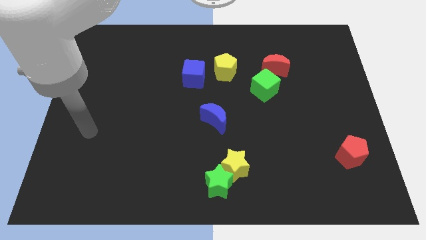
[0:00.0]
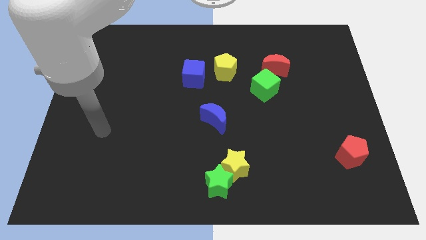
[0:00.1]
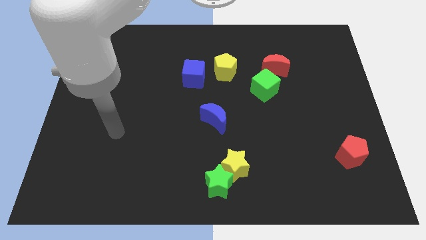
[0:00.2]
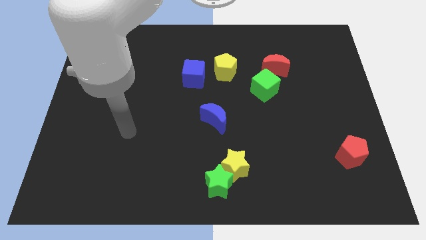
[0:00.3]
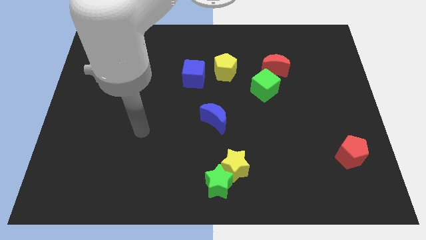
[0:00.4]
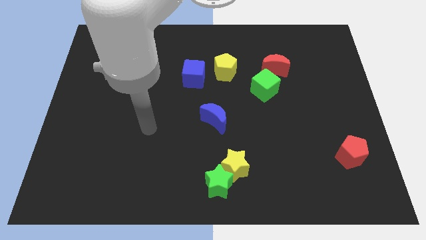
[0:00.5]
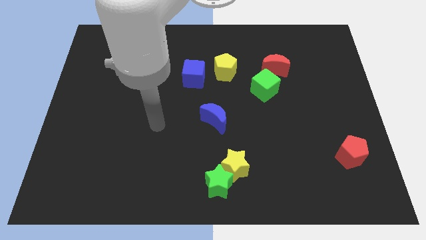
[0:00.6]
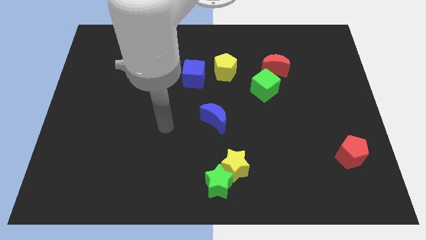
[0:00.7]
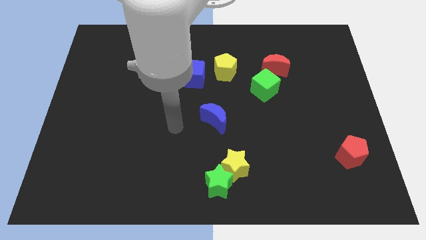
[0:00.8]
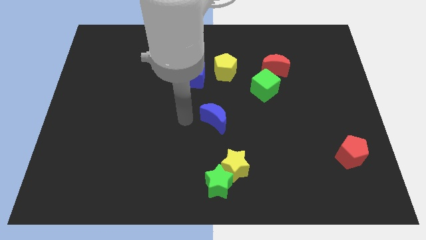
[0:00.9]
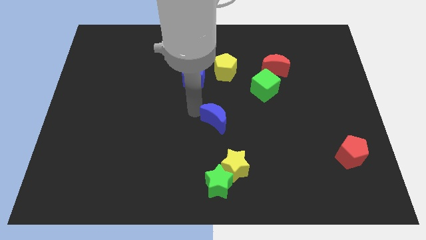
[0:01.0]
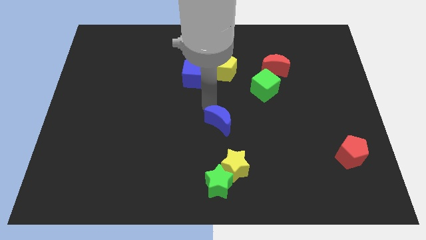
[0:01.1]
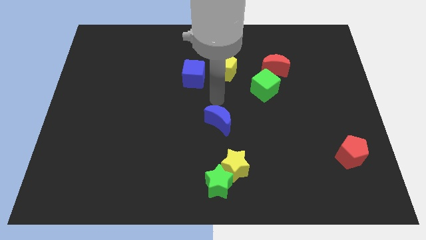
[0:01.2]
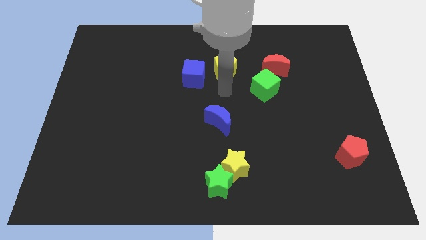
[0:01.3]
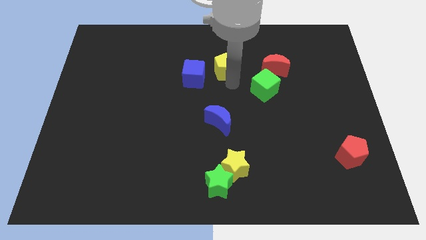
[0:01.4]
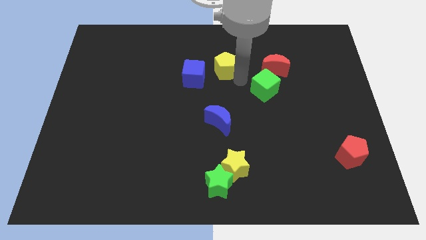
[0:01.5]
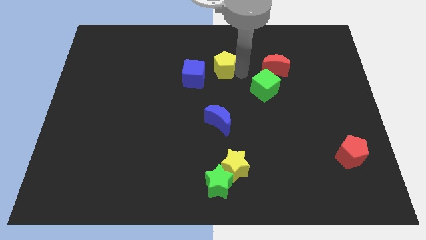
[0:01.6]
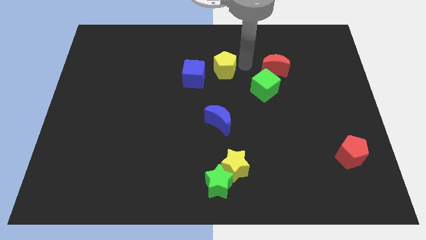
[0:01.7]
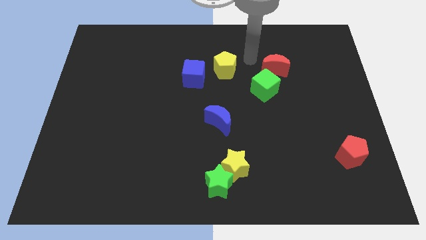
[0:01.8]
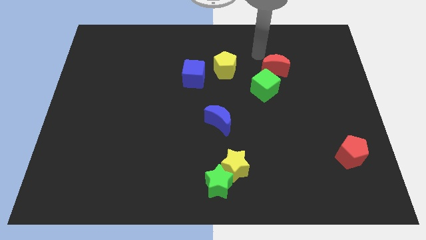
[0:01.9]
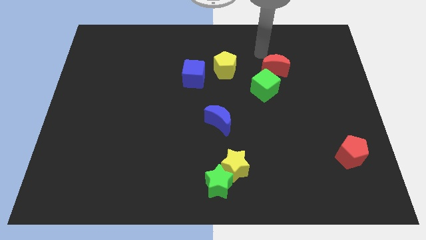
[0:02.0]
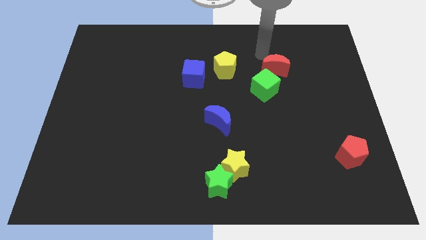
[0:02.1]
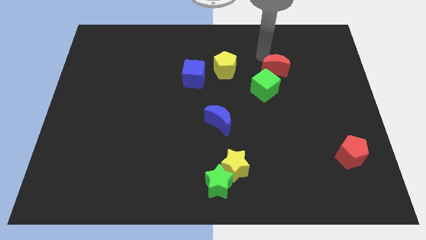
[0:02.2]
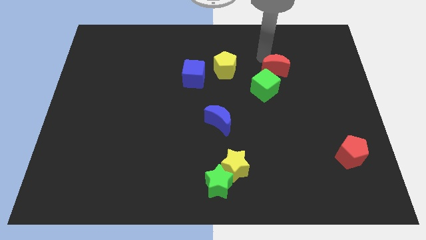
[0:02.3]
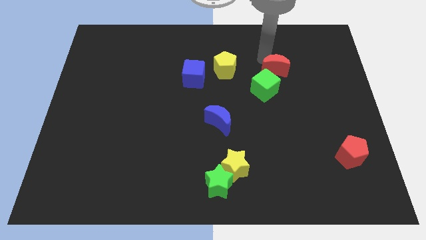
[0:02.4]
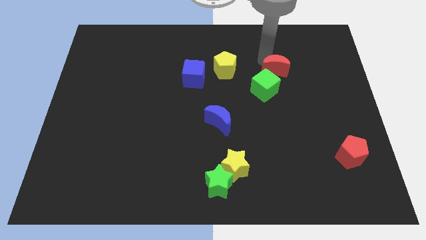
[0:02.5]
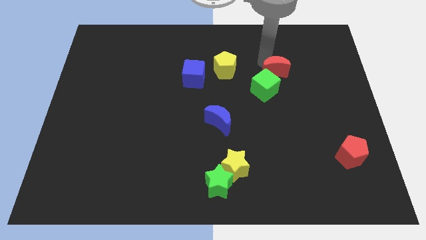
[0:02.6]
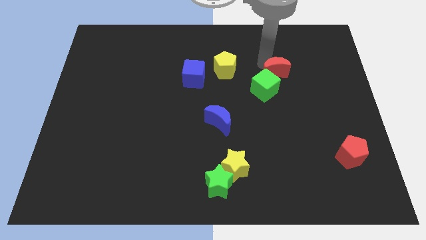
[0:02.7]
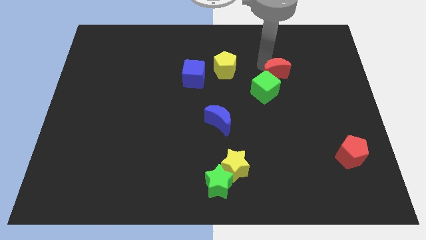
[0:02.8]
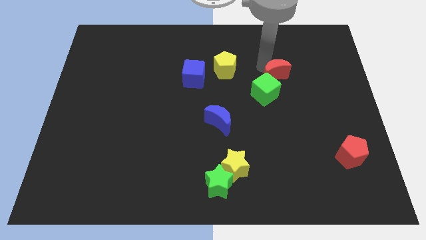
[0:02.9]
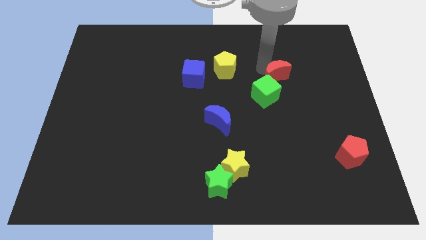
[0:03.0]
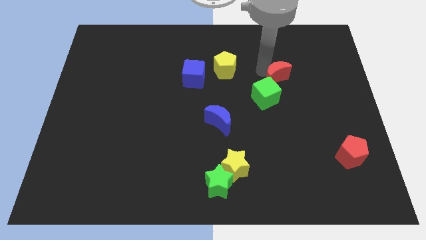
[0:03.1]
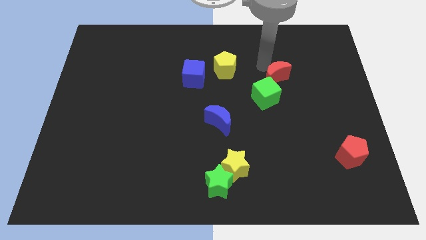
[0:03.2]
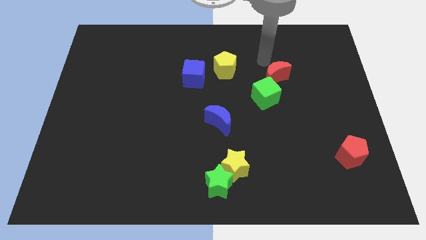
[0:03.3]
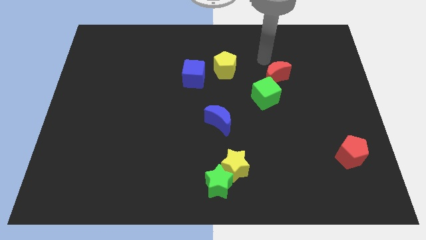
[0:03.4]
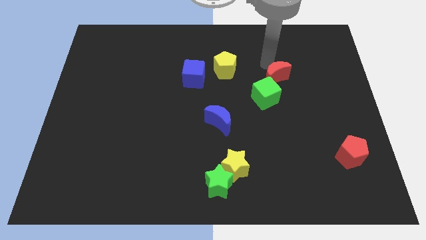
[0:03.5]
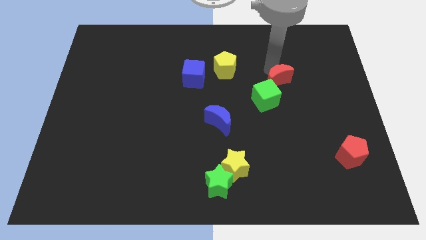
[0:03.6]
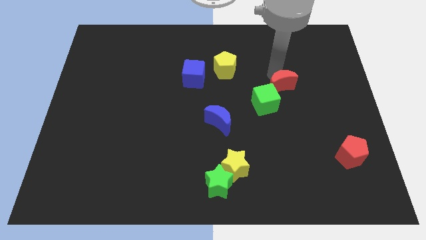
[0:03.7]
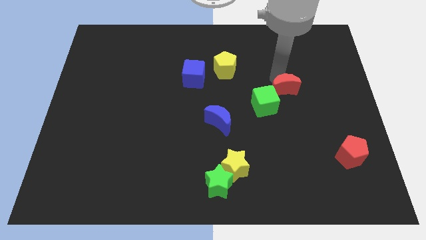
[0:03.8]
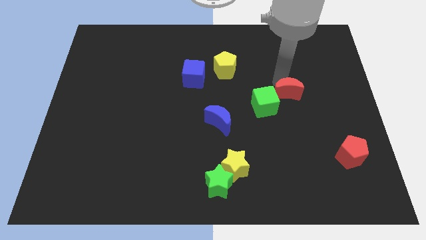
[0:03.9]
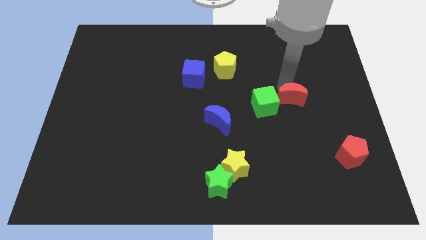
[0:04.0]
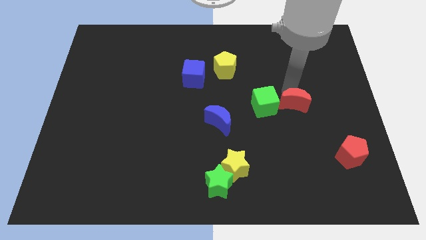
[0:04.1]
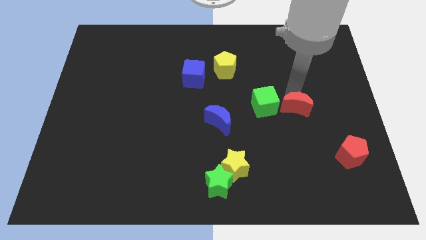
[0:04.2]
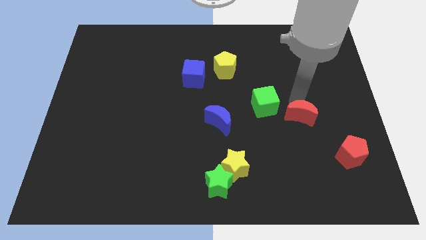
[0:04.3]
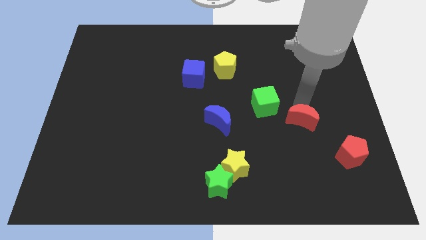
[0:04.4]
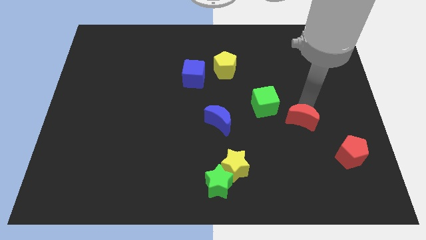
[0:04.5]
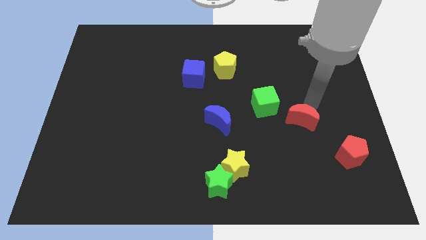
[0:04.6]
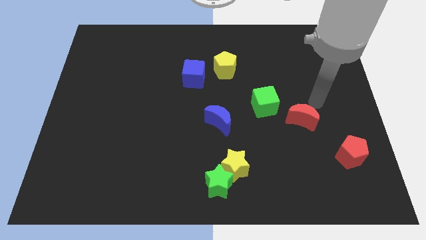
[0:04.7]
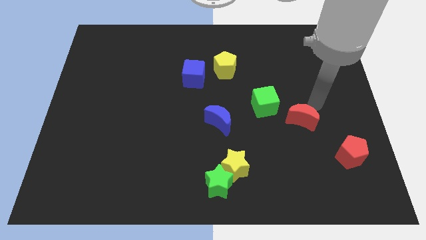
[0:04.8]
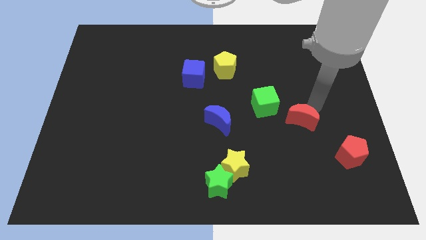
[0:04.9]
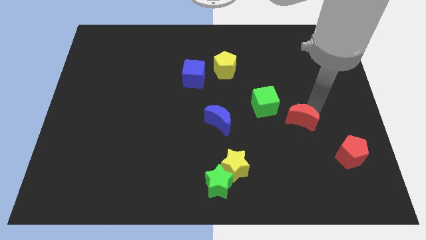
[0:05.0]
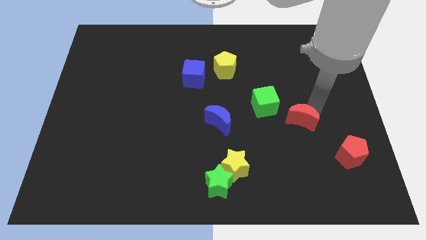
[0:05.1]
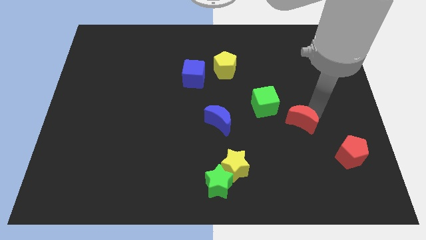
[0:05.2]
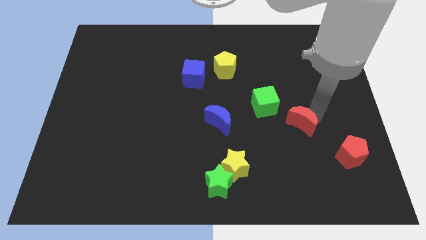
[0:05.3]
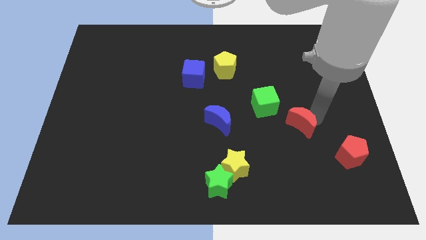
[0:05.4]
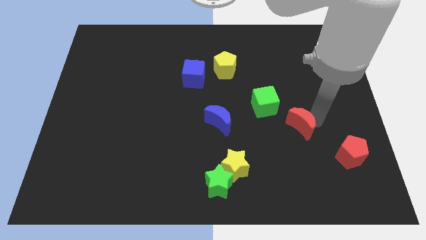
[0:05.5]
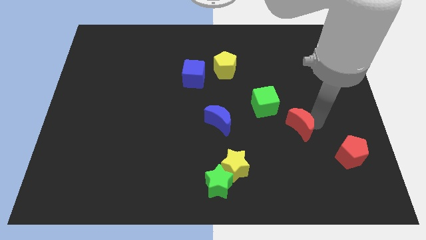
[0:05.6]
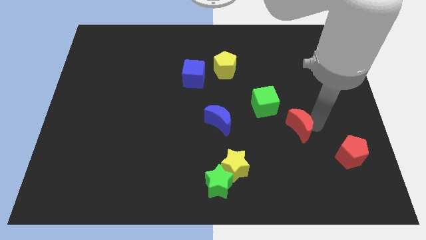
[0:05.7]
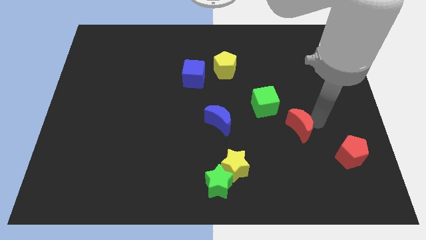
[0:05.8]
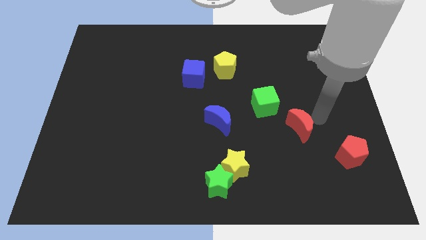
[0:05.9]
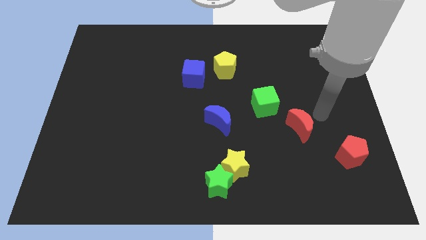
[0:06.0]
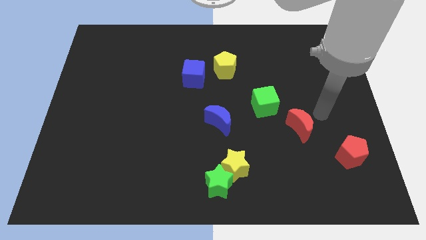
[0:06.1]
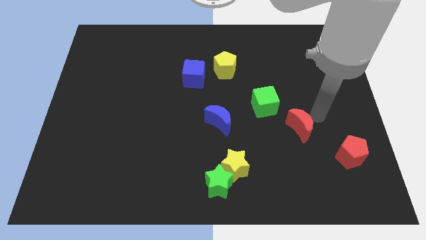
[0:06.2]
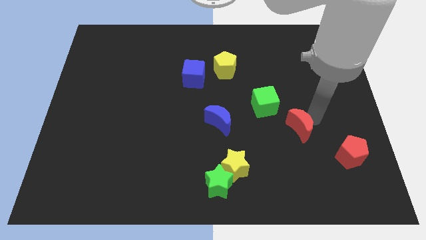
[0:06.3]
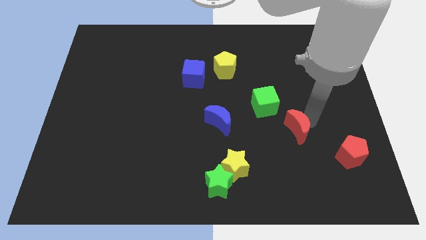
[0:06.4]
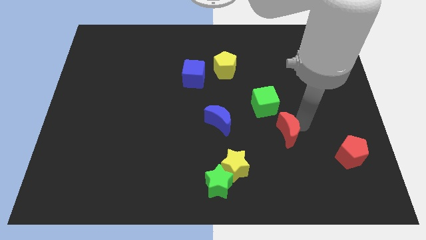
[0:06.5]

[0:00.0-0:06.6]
push the red moon down

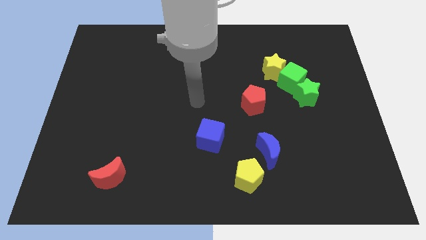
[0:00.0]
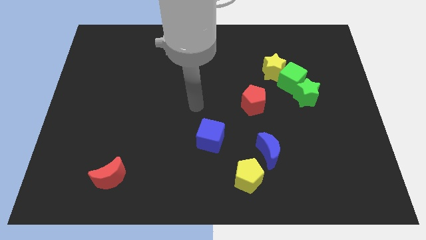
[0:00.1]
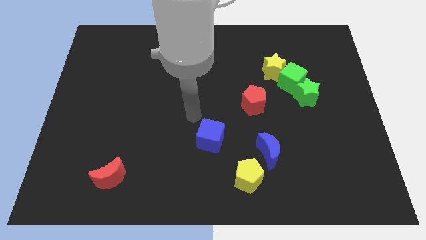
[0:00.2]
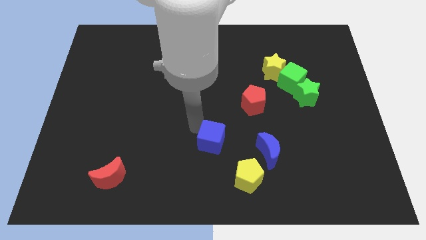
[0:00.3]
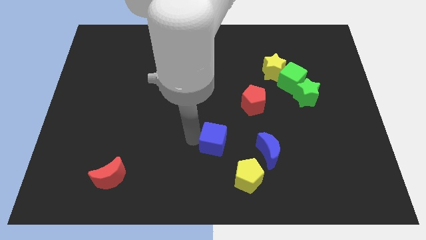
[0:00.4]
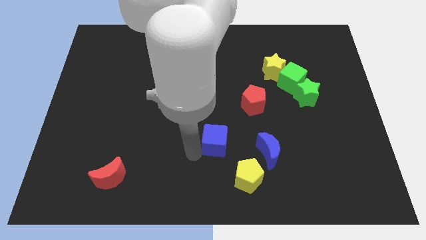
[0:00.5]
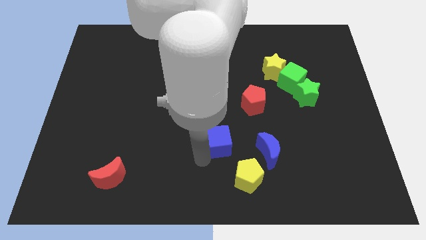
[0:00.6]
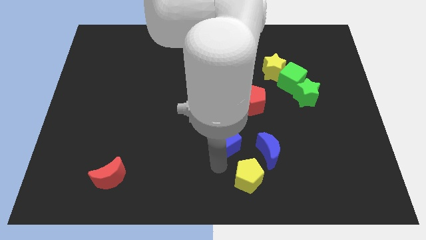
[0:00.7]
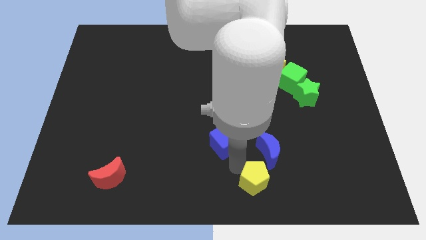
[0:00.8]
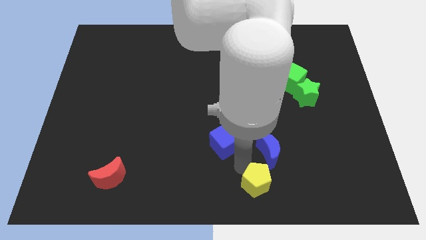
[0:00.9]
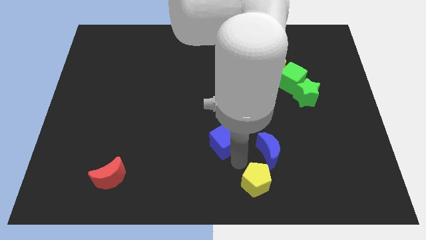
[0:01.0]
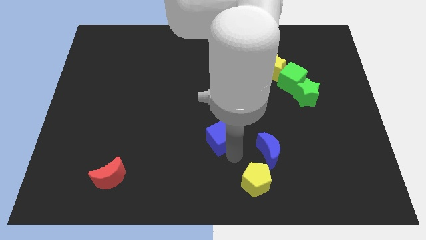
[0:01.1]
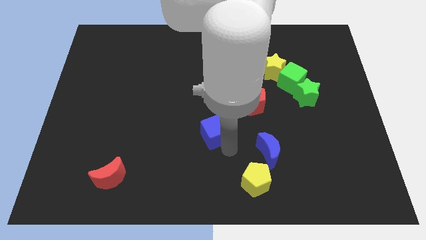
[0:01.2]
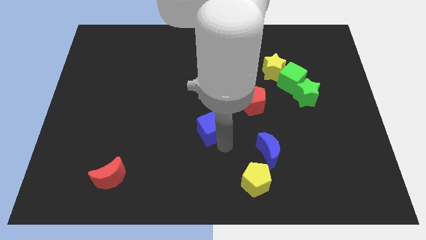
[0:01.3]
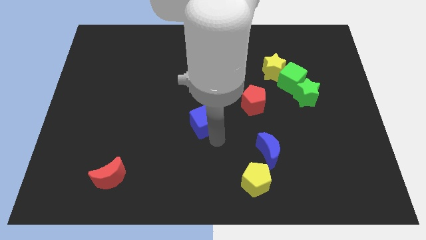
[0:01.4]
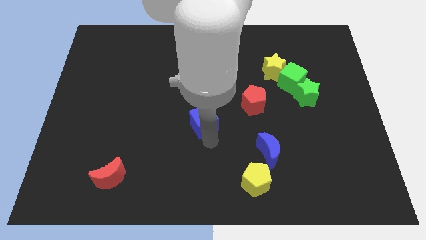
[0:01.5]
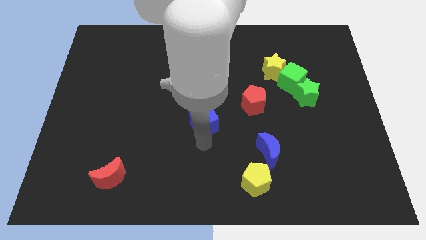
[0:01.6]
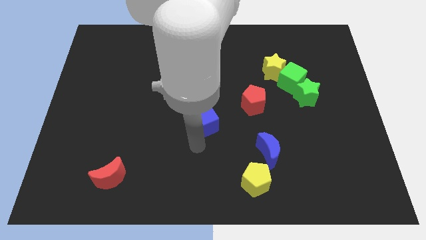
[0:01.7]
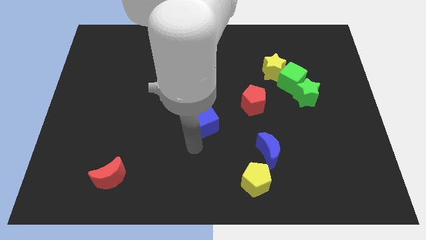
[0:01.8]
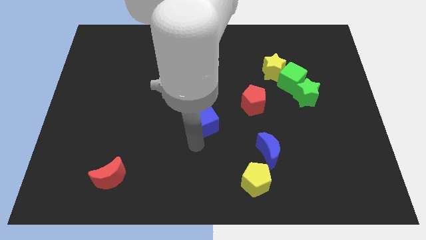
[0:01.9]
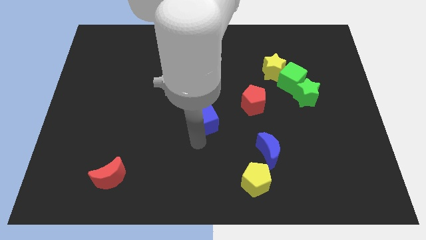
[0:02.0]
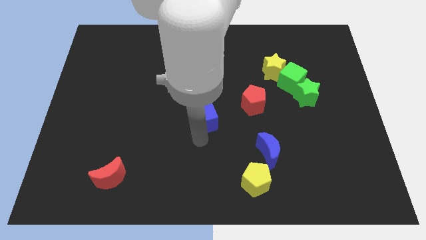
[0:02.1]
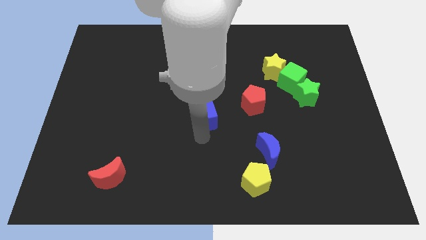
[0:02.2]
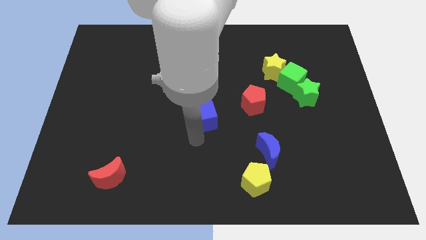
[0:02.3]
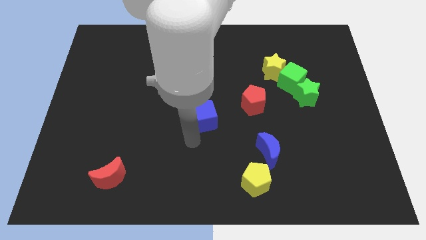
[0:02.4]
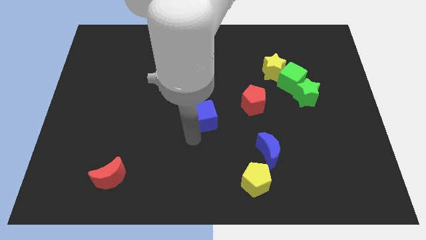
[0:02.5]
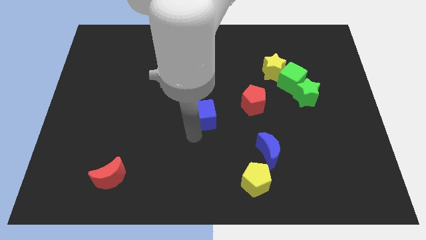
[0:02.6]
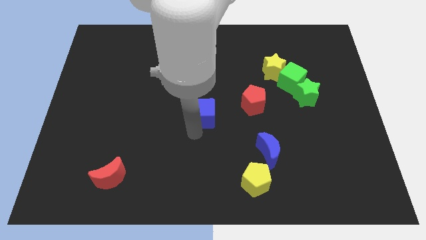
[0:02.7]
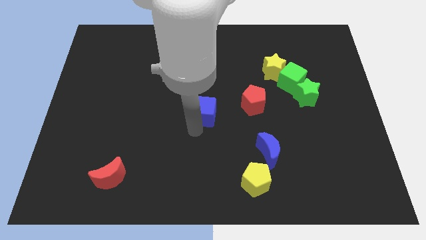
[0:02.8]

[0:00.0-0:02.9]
slightly push the blue cube up
